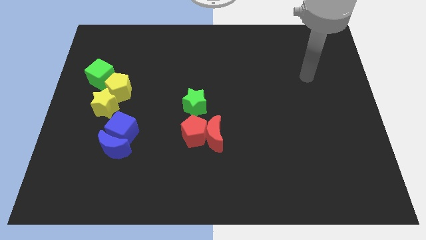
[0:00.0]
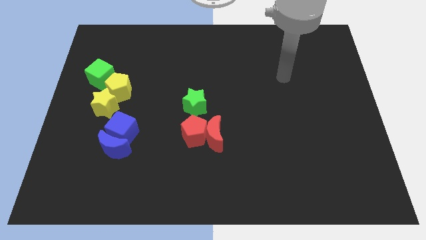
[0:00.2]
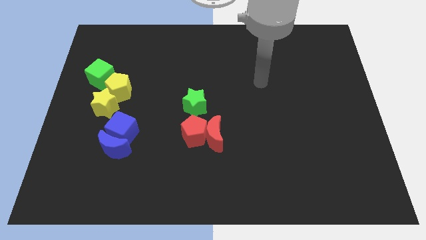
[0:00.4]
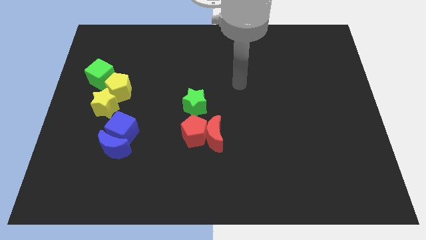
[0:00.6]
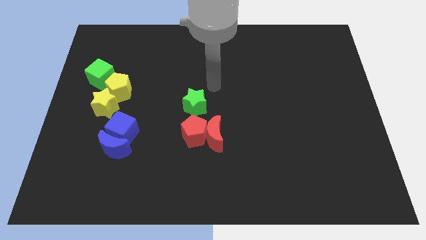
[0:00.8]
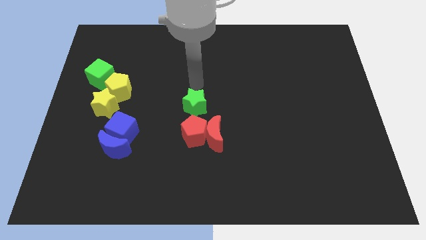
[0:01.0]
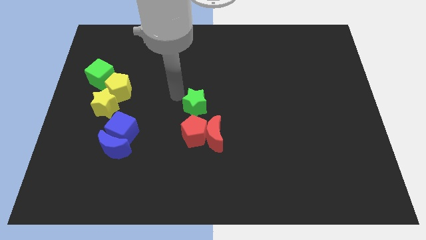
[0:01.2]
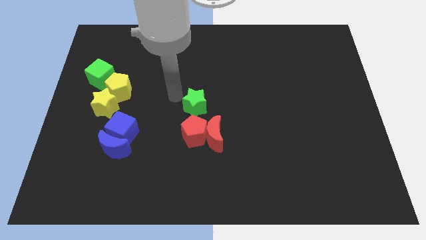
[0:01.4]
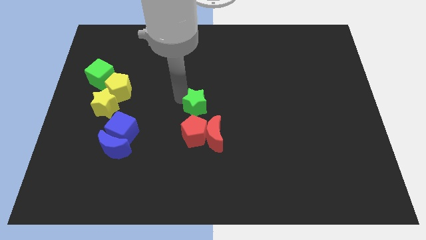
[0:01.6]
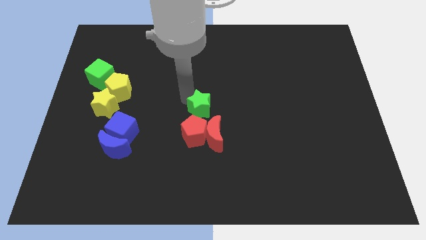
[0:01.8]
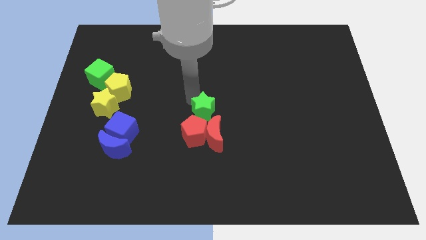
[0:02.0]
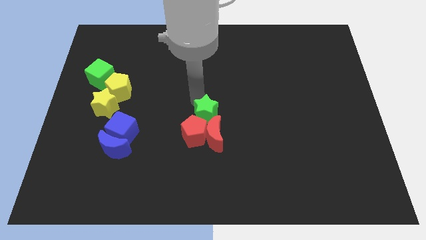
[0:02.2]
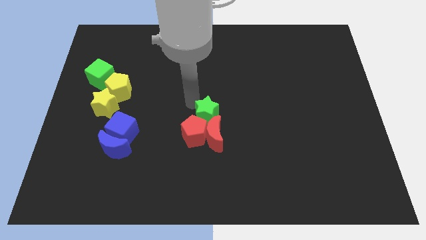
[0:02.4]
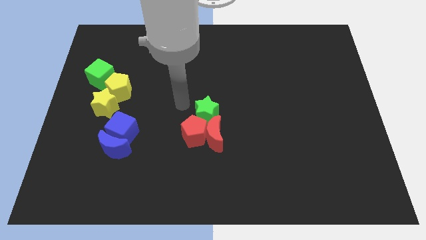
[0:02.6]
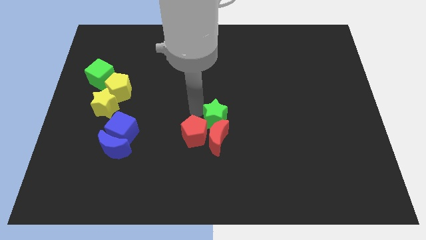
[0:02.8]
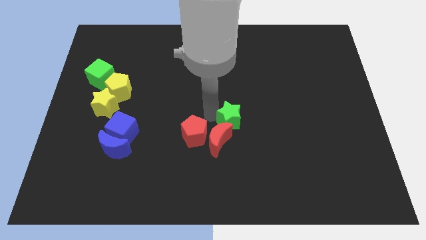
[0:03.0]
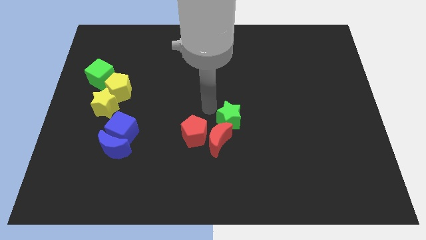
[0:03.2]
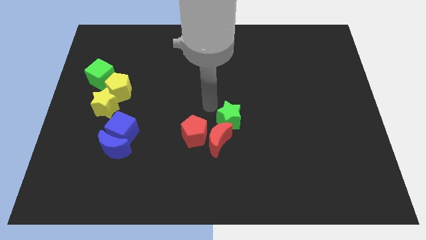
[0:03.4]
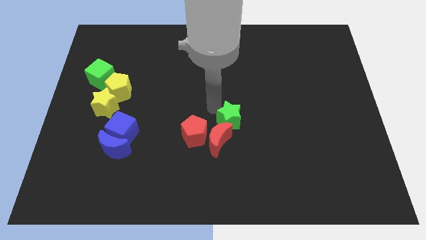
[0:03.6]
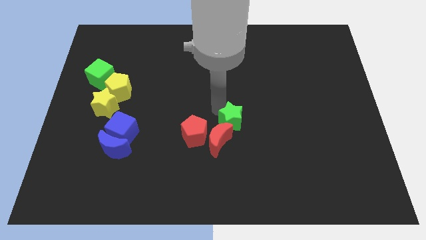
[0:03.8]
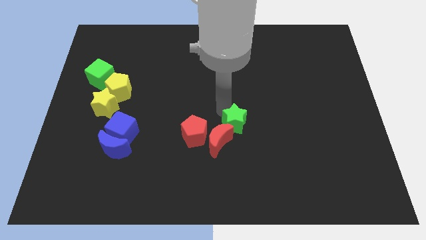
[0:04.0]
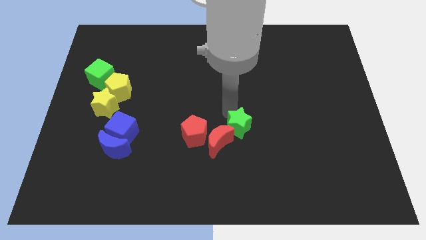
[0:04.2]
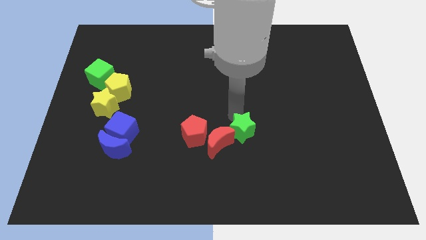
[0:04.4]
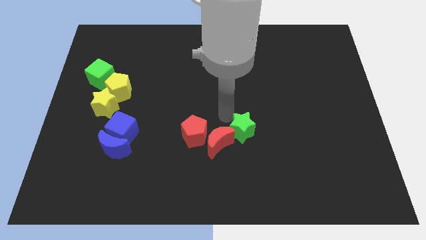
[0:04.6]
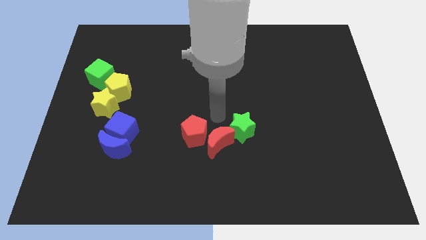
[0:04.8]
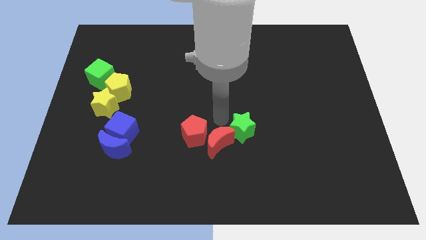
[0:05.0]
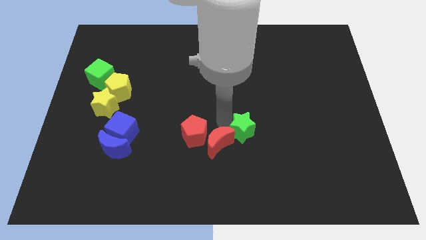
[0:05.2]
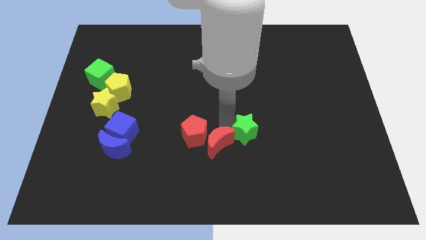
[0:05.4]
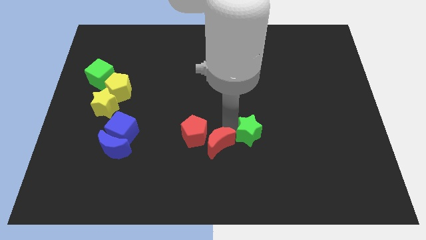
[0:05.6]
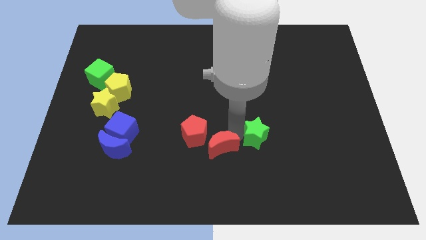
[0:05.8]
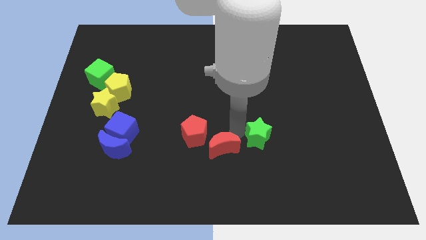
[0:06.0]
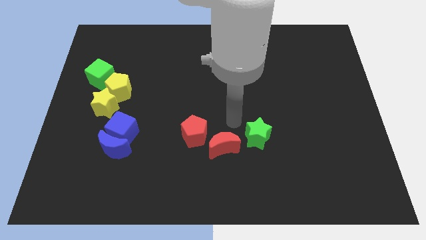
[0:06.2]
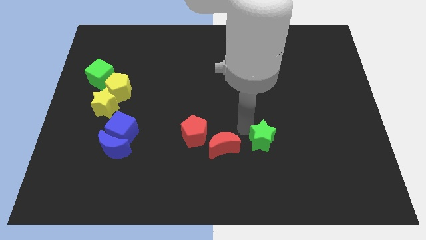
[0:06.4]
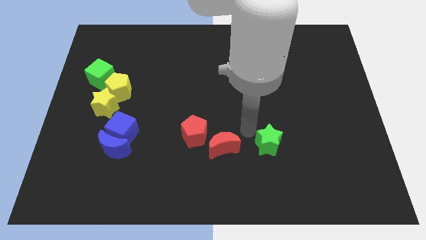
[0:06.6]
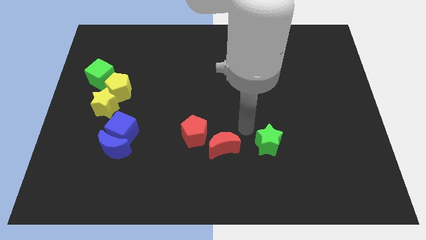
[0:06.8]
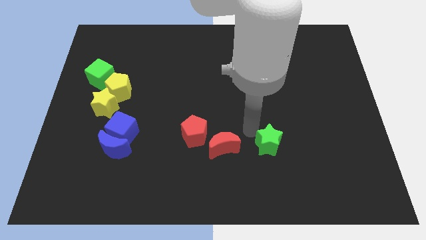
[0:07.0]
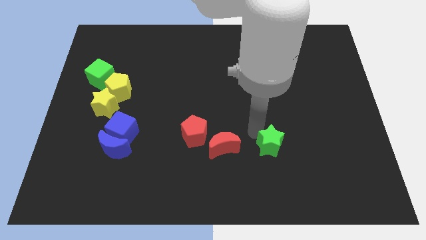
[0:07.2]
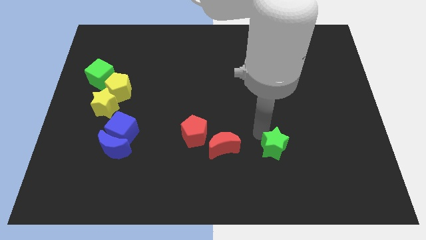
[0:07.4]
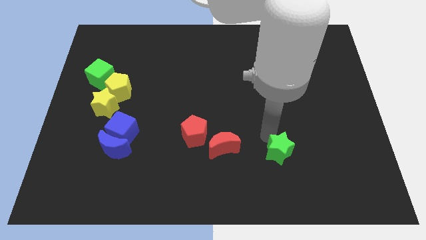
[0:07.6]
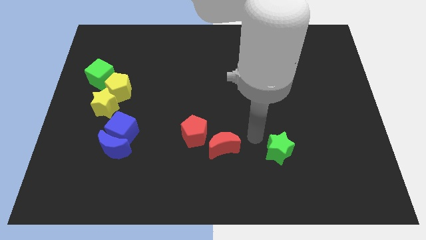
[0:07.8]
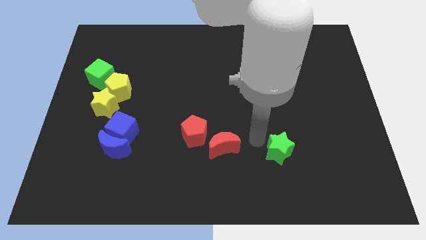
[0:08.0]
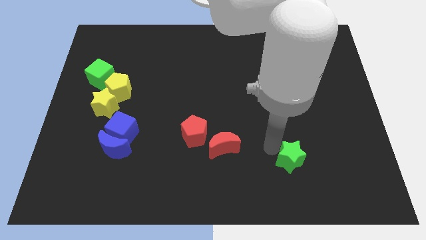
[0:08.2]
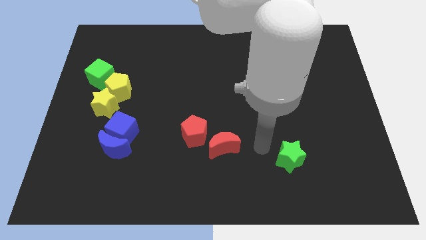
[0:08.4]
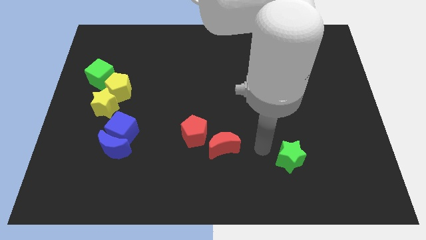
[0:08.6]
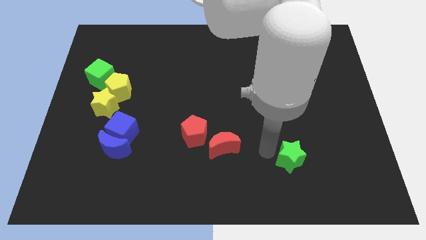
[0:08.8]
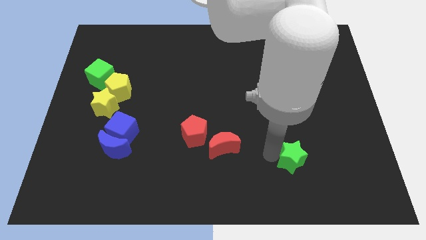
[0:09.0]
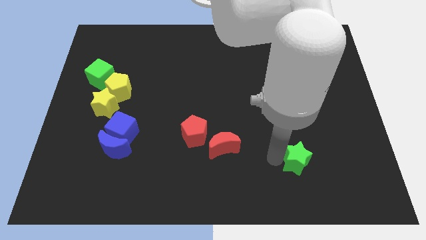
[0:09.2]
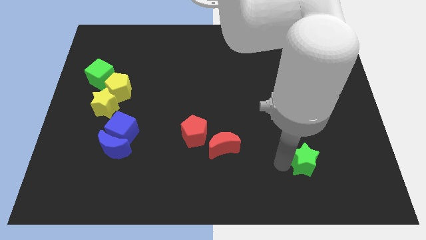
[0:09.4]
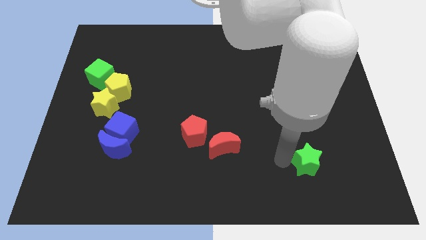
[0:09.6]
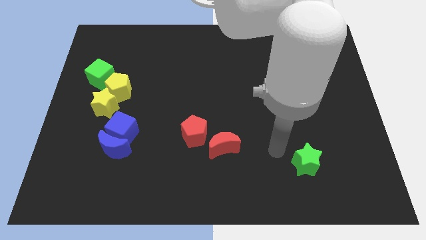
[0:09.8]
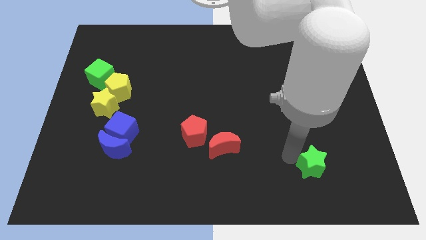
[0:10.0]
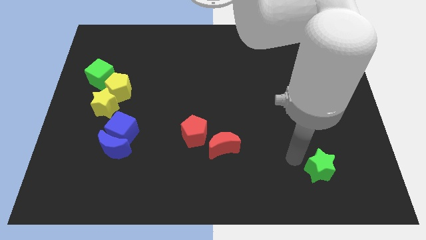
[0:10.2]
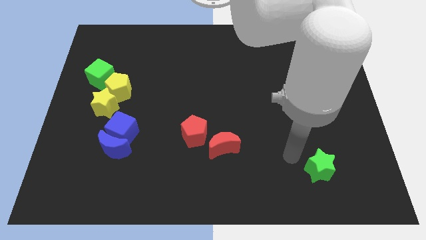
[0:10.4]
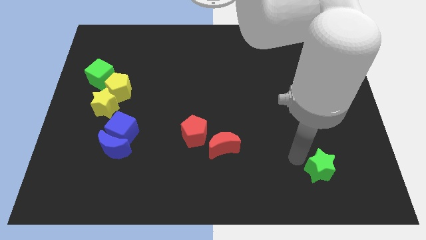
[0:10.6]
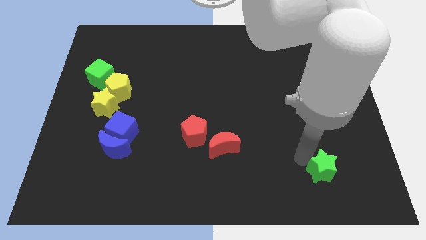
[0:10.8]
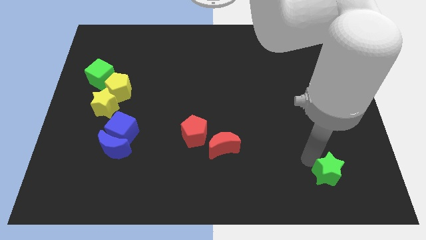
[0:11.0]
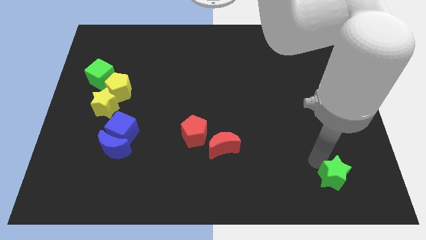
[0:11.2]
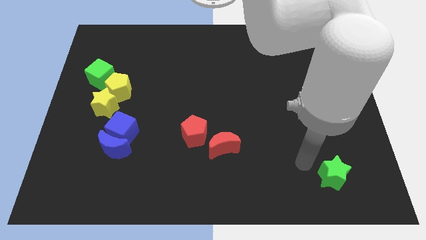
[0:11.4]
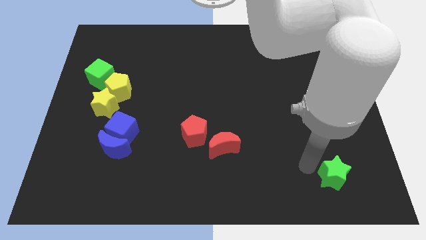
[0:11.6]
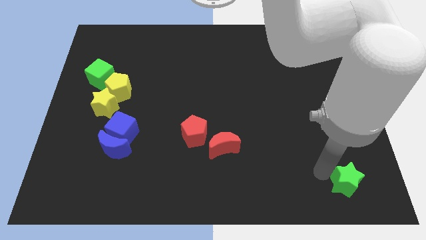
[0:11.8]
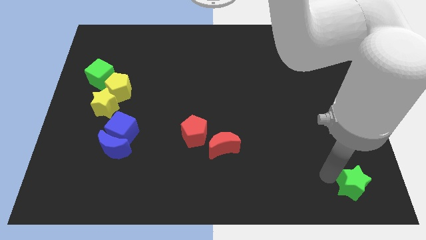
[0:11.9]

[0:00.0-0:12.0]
slide the green star to the lower right corner

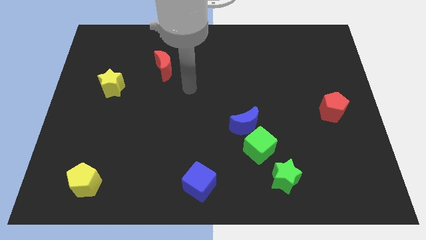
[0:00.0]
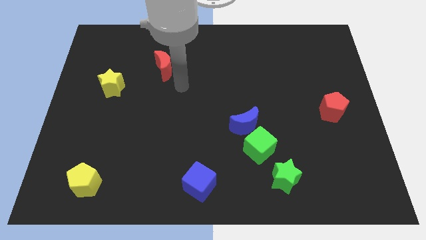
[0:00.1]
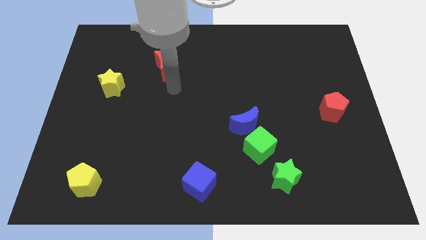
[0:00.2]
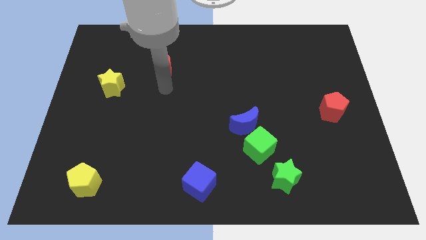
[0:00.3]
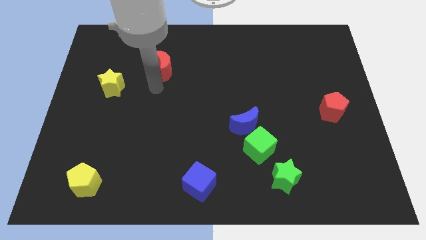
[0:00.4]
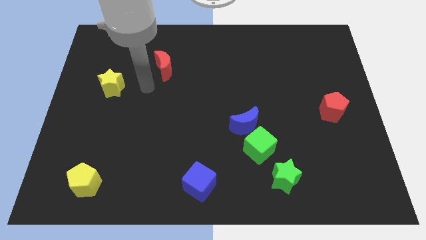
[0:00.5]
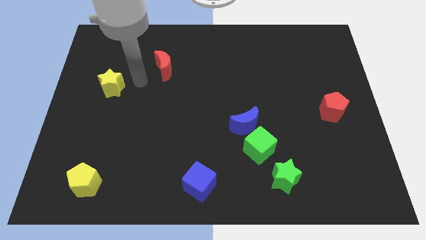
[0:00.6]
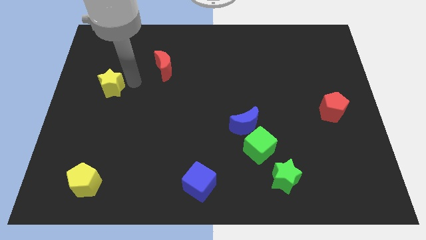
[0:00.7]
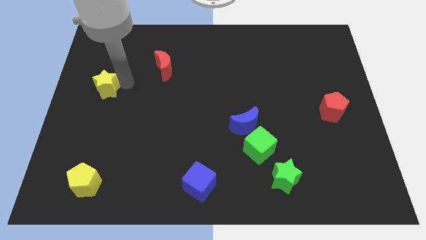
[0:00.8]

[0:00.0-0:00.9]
push the yellow star to the left side
